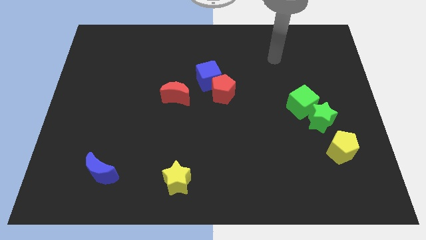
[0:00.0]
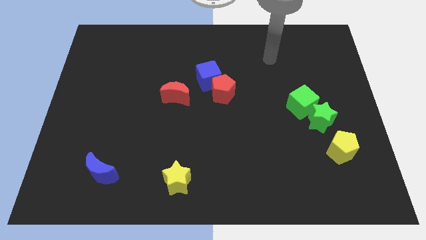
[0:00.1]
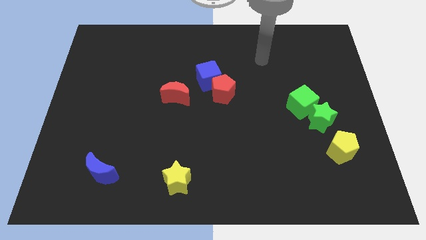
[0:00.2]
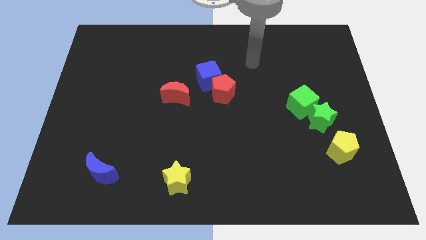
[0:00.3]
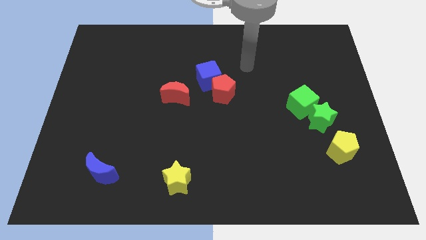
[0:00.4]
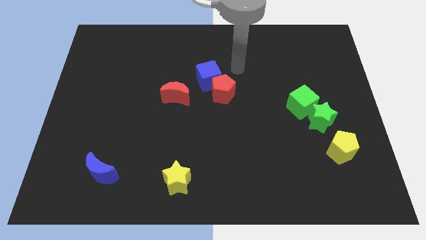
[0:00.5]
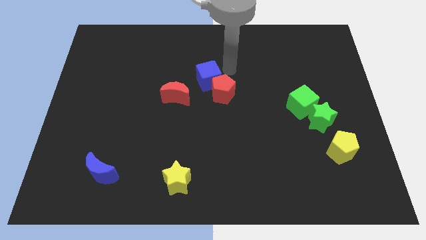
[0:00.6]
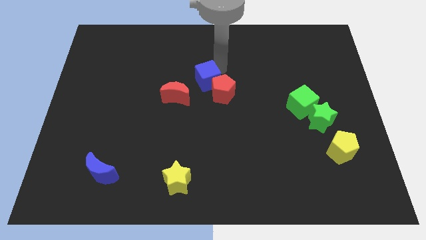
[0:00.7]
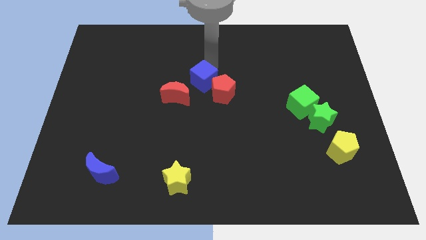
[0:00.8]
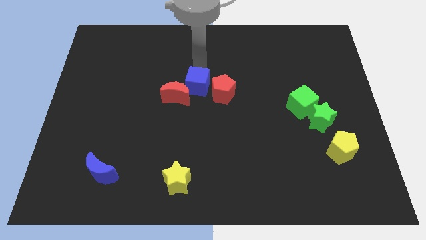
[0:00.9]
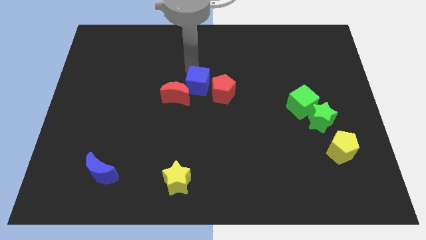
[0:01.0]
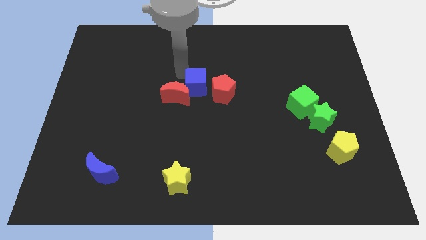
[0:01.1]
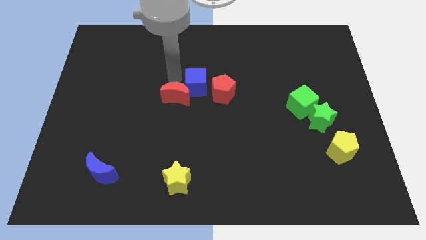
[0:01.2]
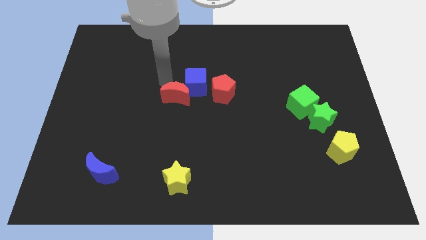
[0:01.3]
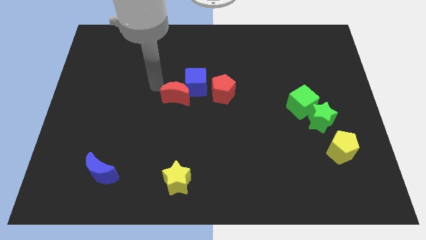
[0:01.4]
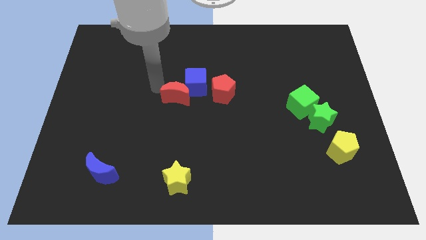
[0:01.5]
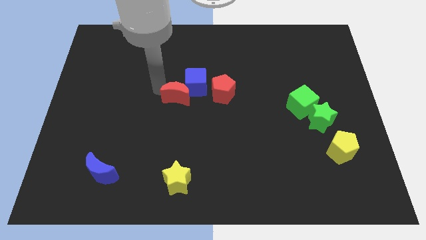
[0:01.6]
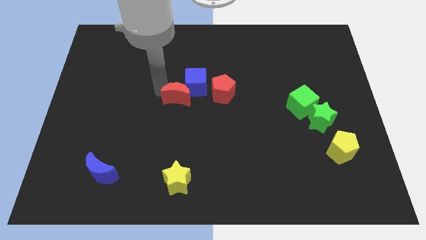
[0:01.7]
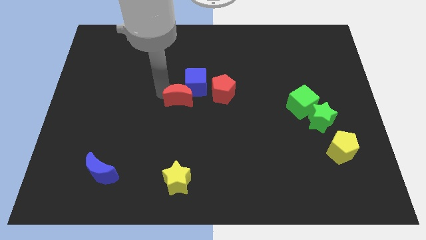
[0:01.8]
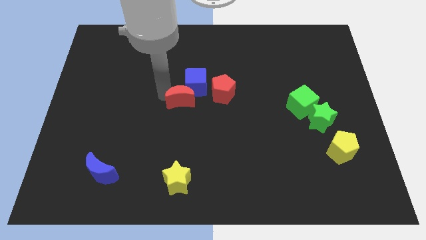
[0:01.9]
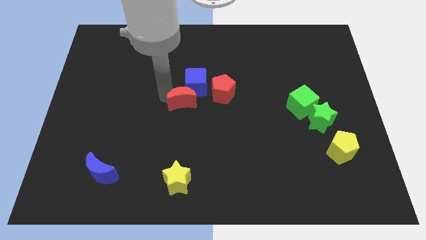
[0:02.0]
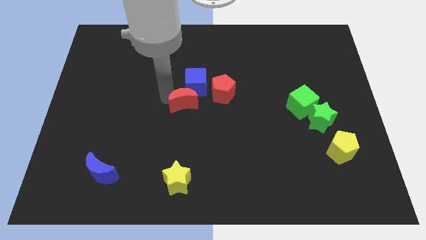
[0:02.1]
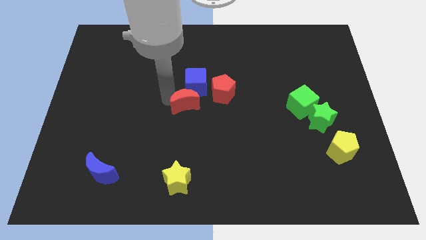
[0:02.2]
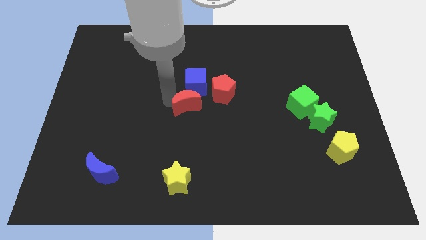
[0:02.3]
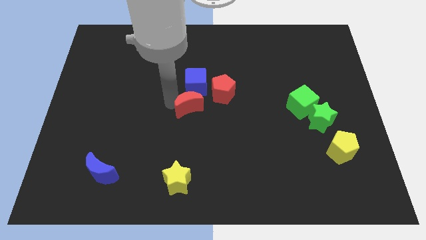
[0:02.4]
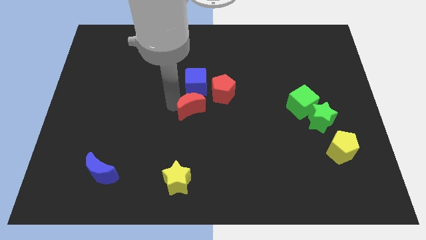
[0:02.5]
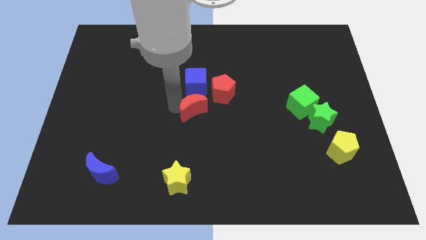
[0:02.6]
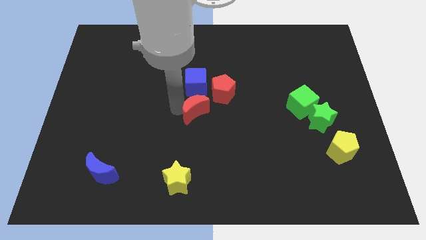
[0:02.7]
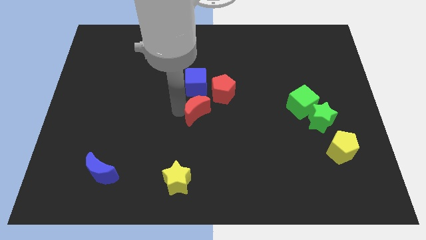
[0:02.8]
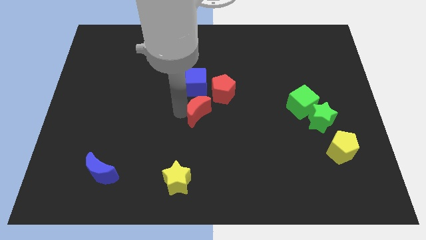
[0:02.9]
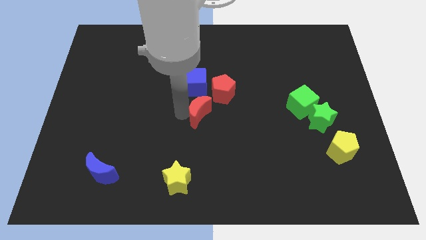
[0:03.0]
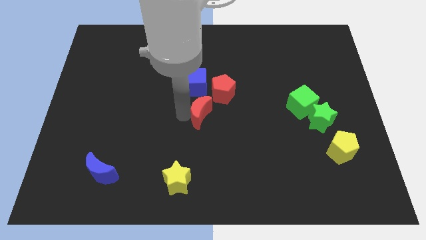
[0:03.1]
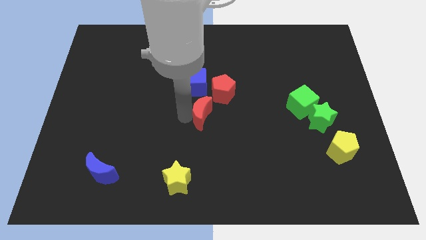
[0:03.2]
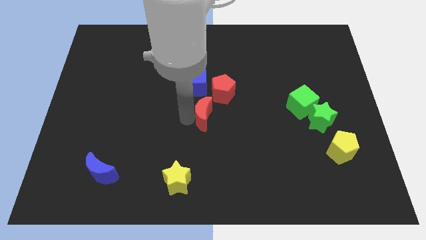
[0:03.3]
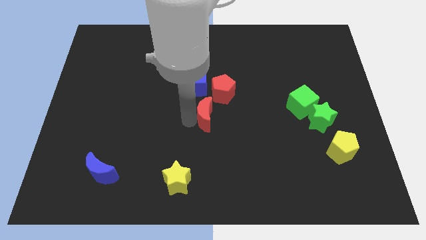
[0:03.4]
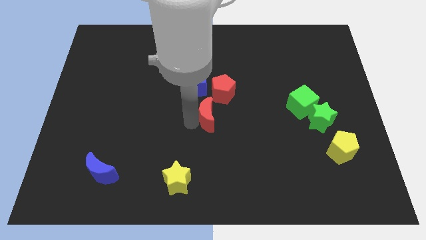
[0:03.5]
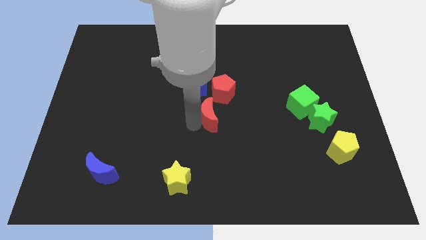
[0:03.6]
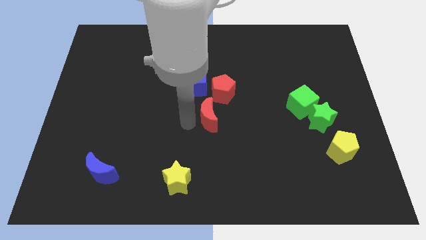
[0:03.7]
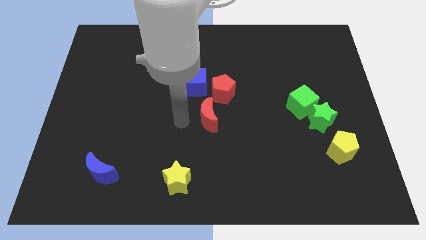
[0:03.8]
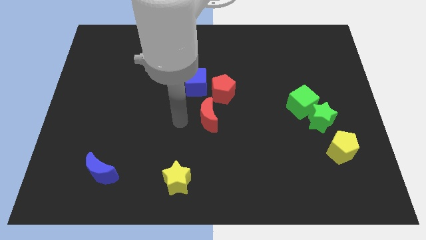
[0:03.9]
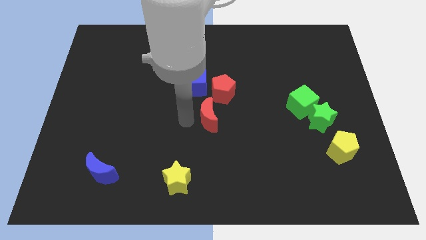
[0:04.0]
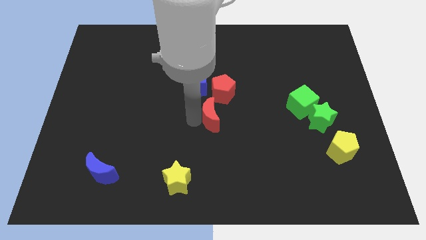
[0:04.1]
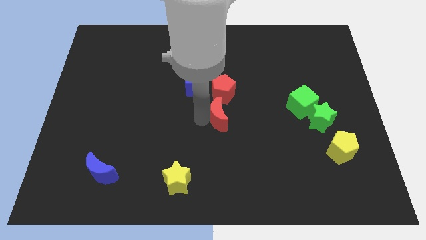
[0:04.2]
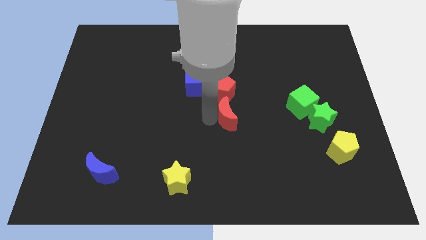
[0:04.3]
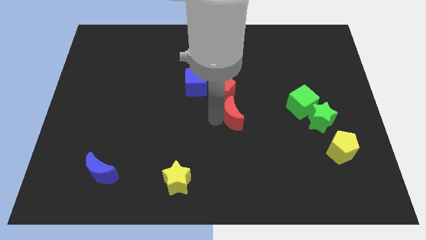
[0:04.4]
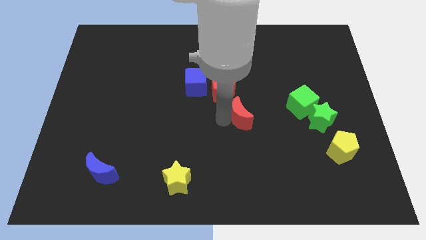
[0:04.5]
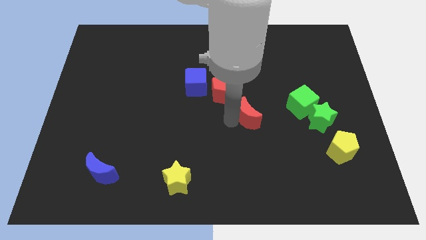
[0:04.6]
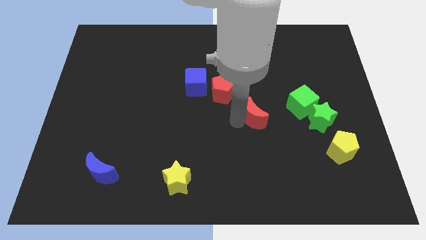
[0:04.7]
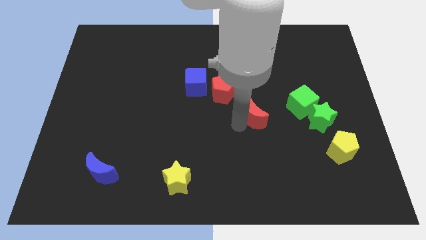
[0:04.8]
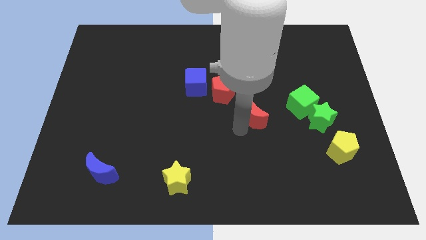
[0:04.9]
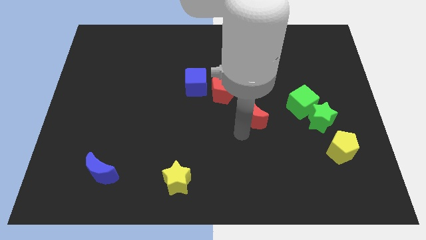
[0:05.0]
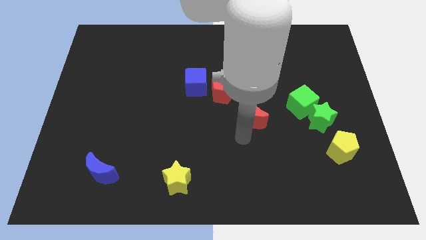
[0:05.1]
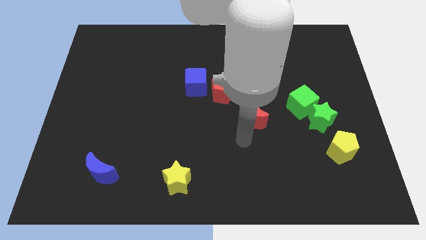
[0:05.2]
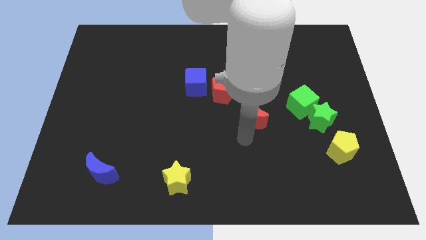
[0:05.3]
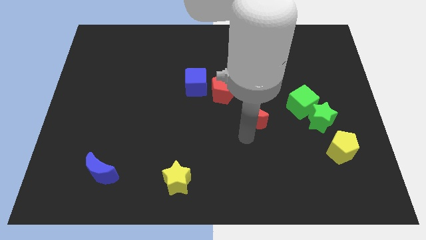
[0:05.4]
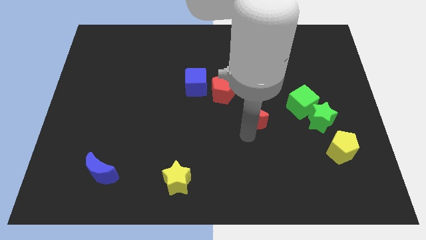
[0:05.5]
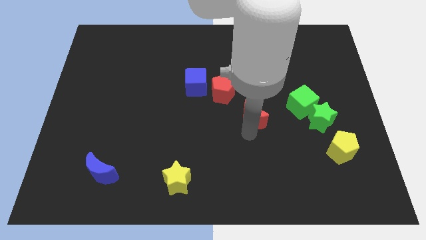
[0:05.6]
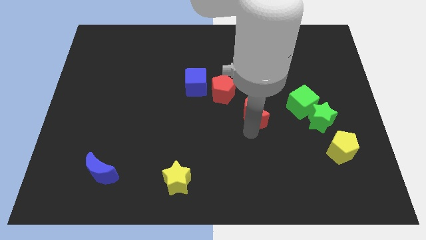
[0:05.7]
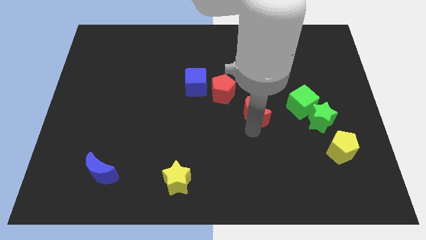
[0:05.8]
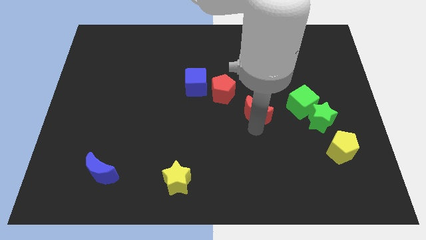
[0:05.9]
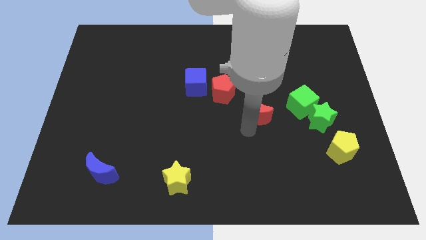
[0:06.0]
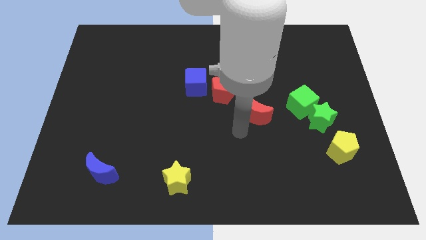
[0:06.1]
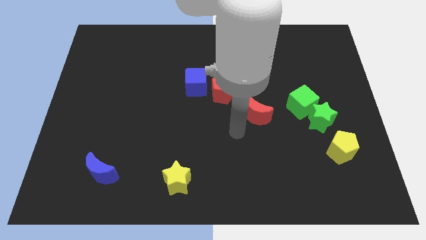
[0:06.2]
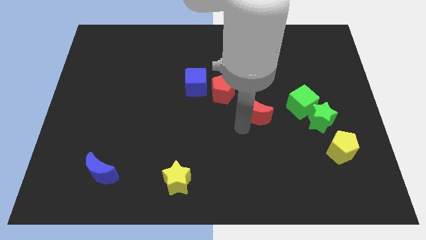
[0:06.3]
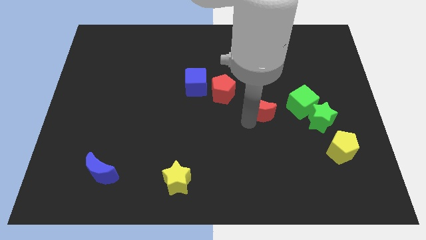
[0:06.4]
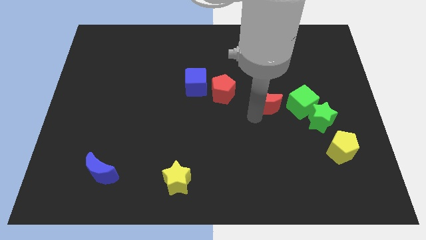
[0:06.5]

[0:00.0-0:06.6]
move the red moon to the right

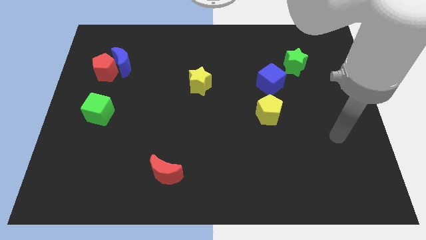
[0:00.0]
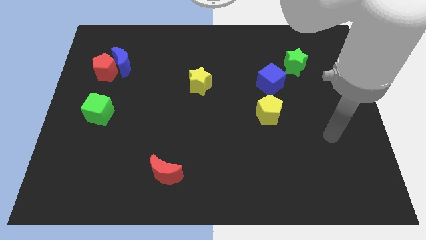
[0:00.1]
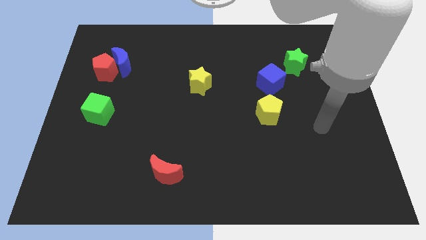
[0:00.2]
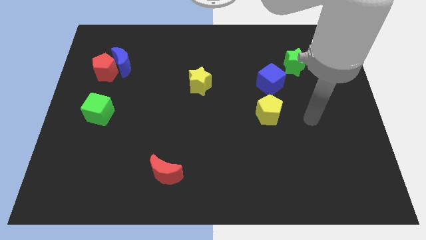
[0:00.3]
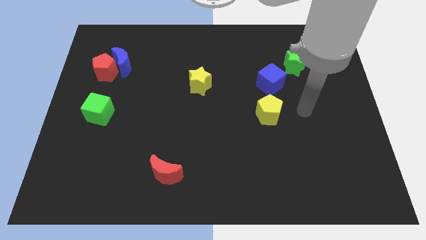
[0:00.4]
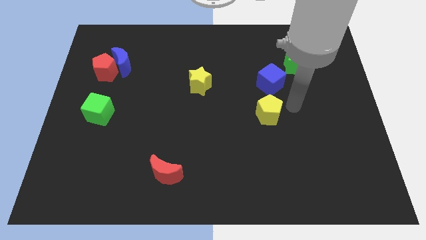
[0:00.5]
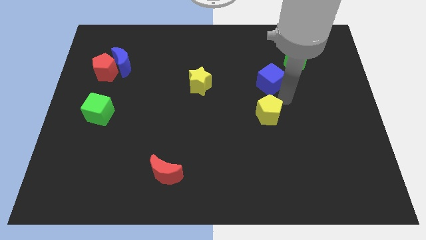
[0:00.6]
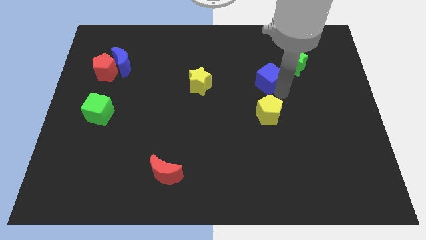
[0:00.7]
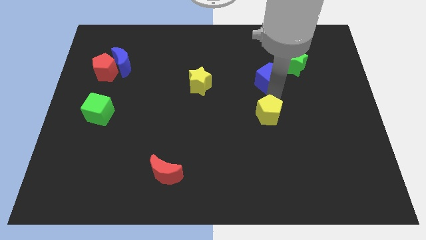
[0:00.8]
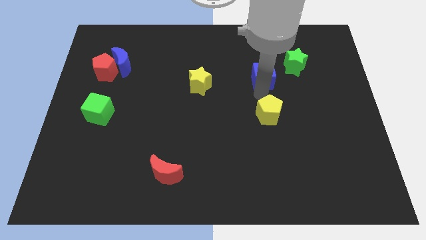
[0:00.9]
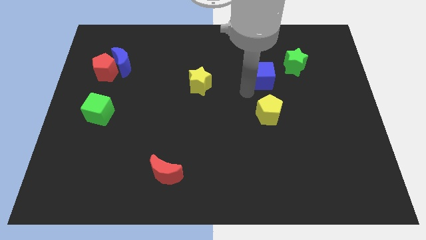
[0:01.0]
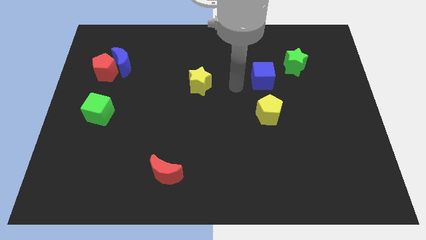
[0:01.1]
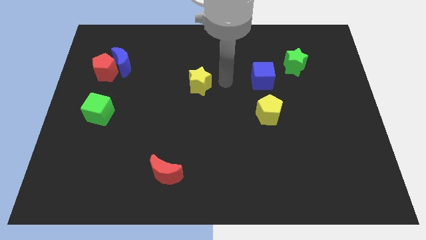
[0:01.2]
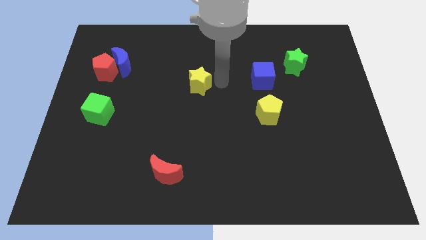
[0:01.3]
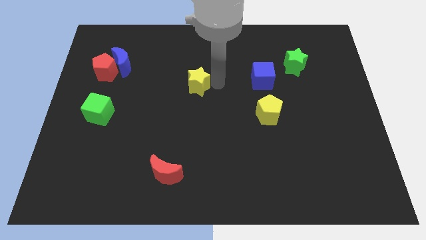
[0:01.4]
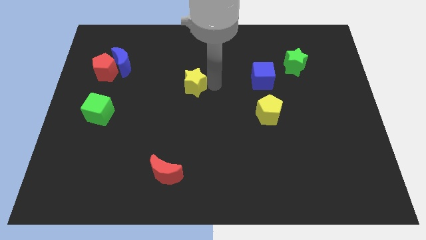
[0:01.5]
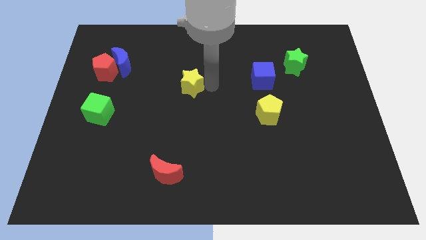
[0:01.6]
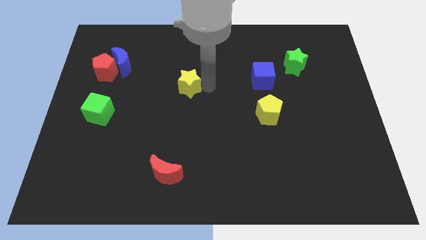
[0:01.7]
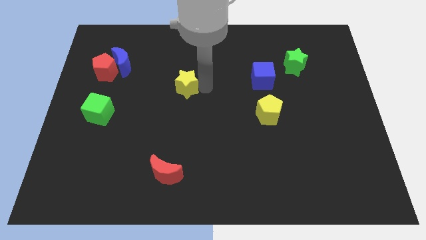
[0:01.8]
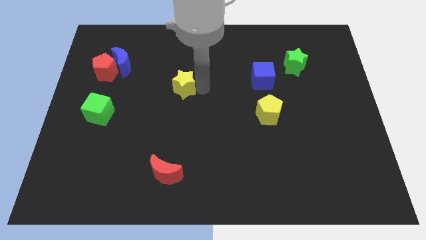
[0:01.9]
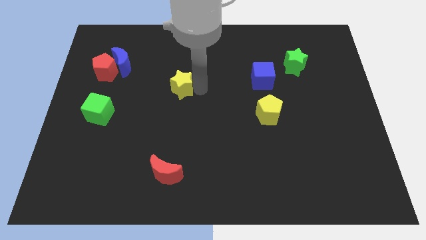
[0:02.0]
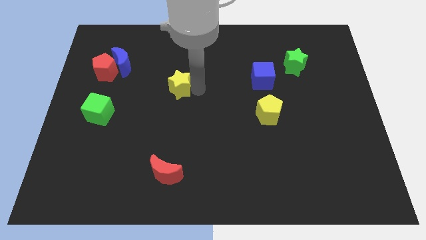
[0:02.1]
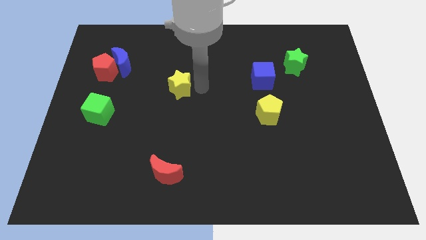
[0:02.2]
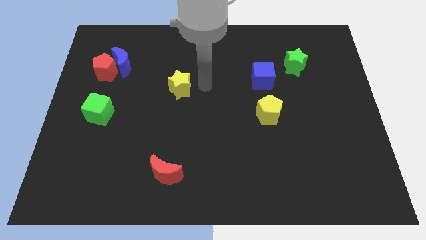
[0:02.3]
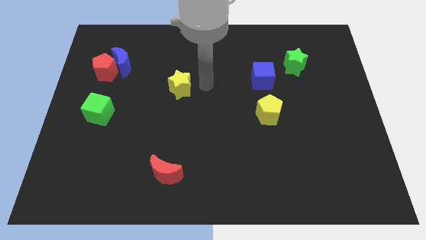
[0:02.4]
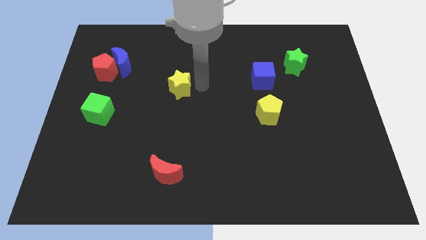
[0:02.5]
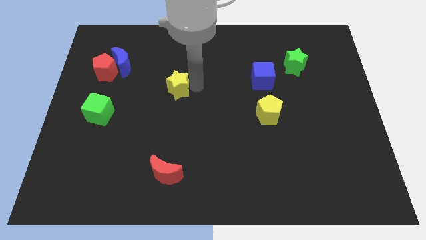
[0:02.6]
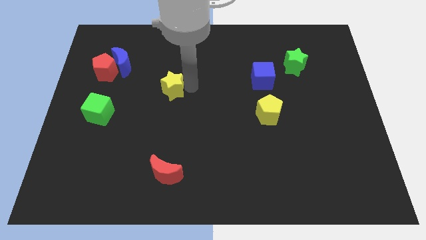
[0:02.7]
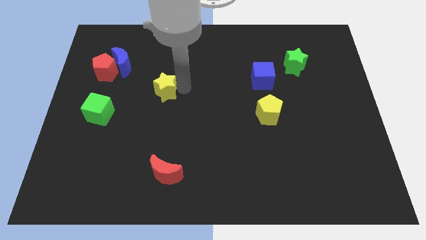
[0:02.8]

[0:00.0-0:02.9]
move the yellow star a little bit to the left
